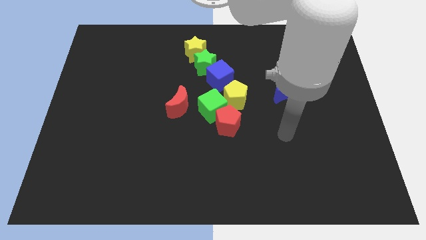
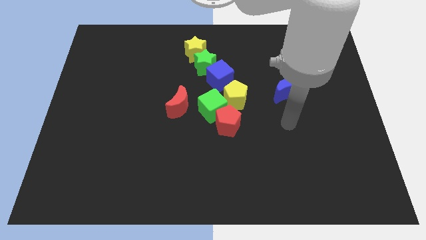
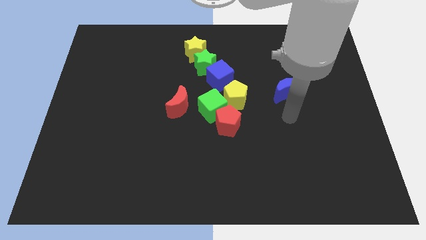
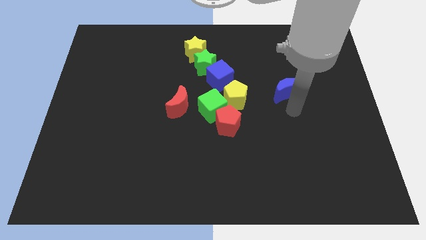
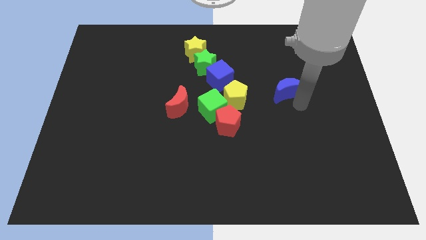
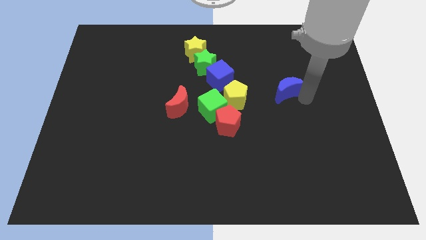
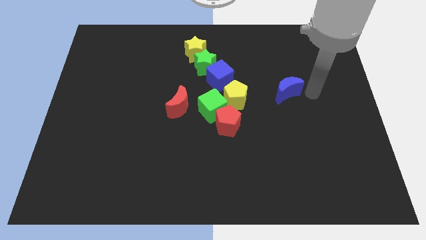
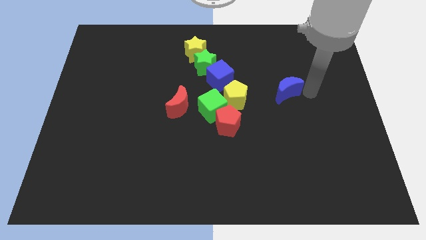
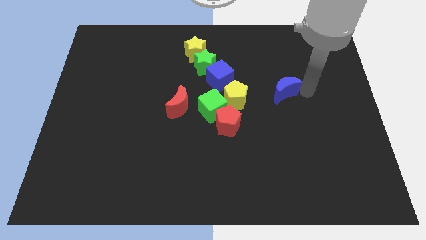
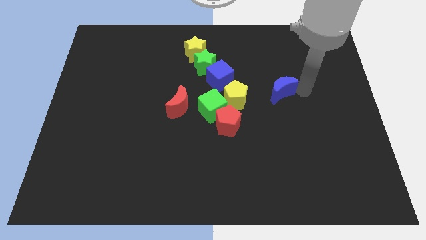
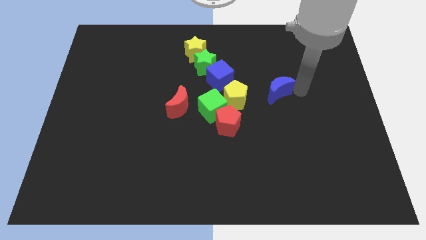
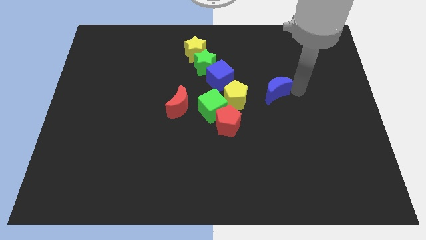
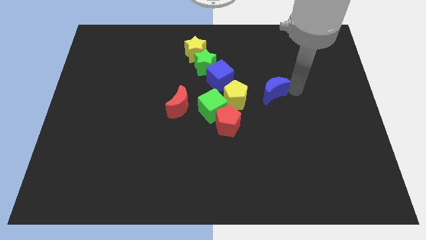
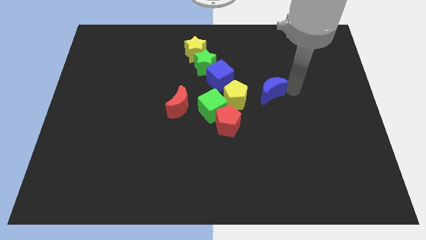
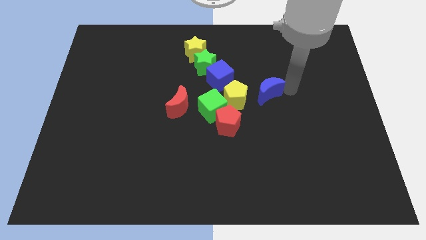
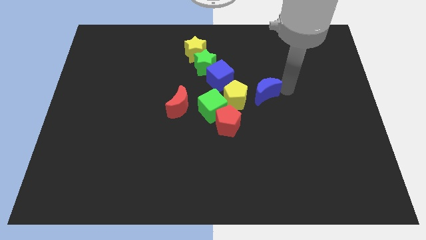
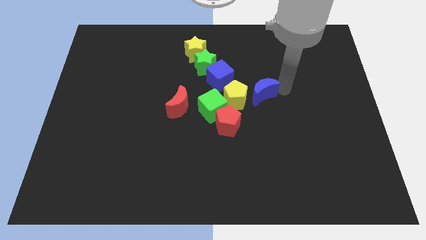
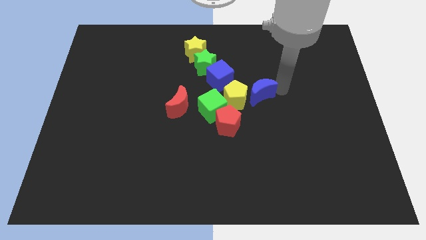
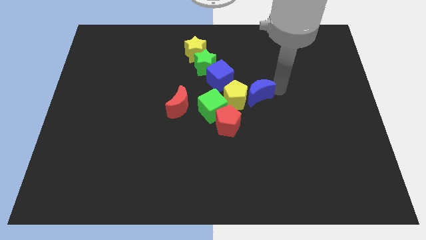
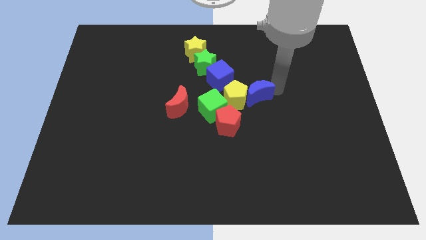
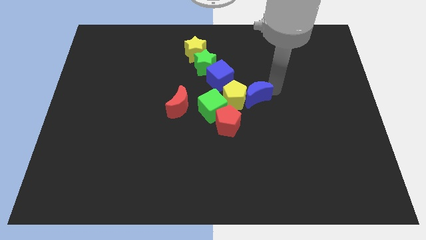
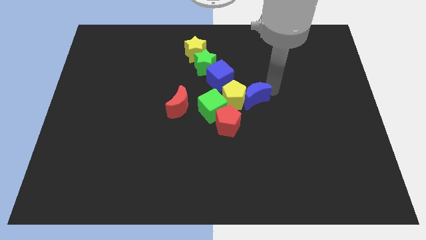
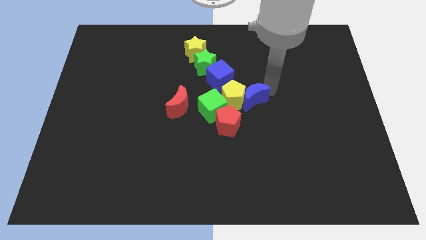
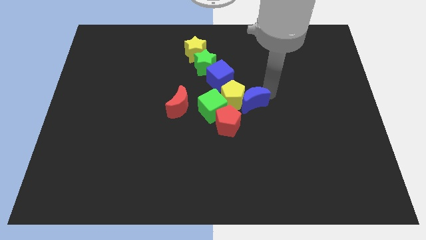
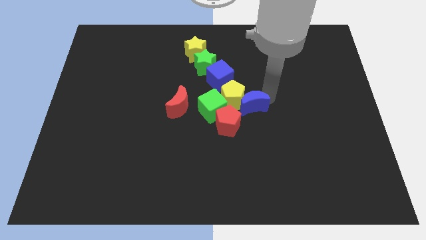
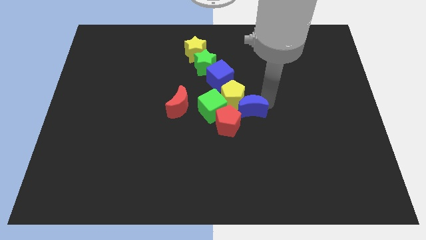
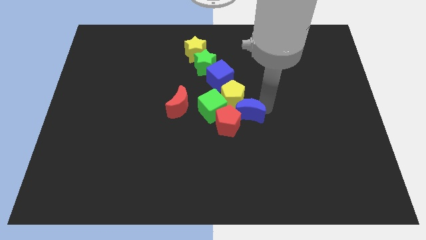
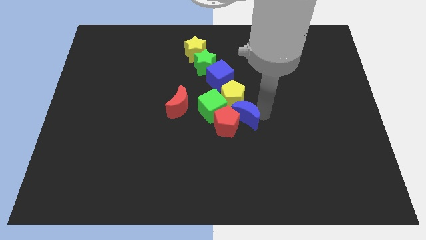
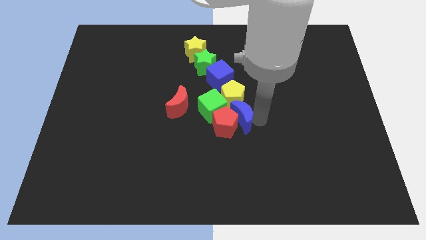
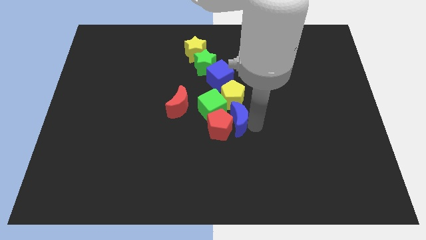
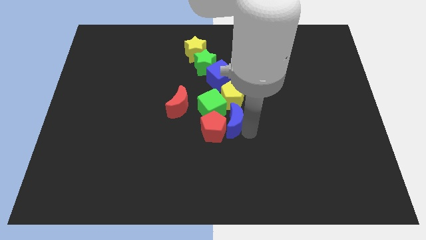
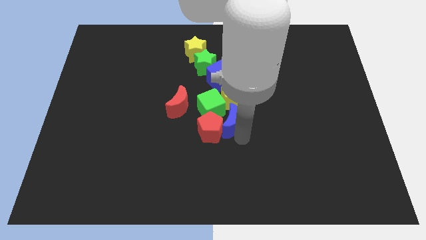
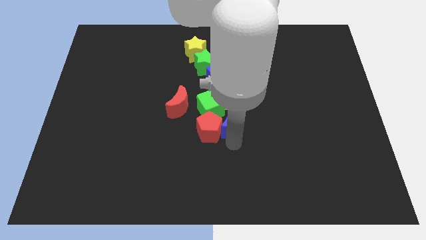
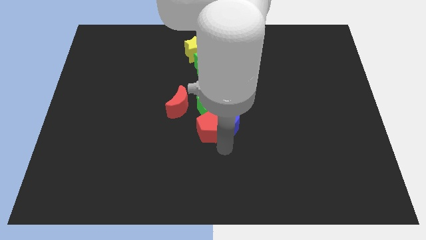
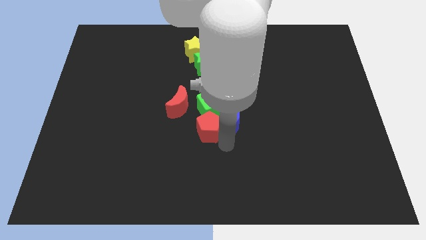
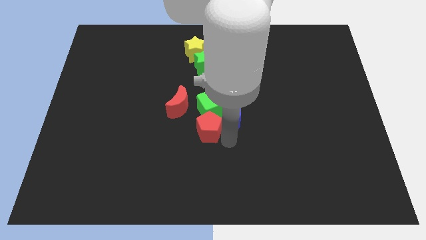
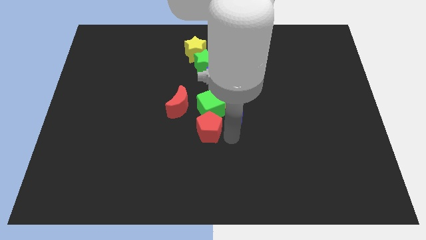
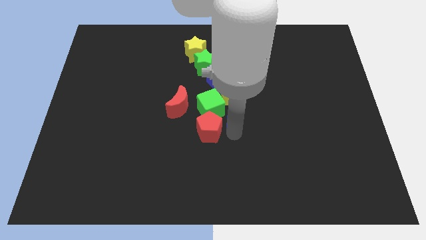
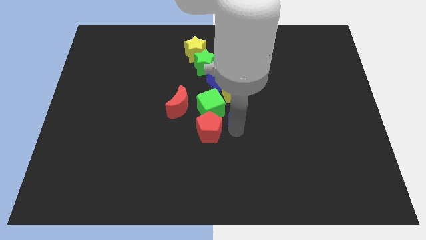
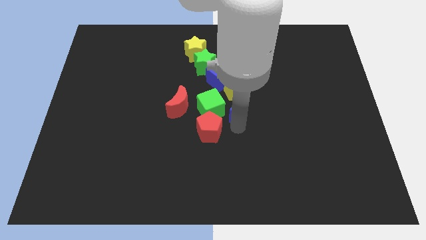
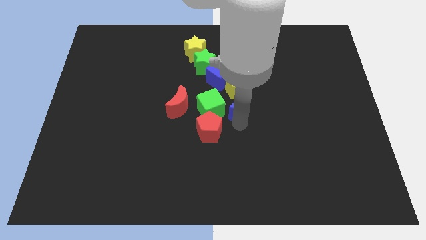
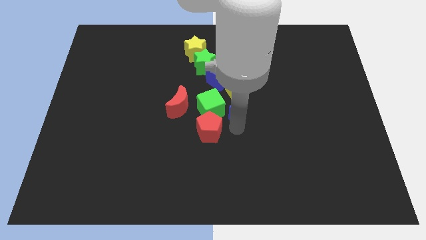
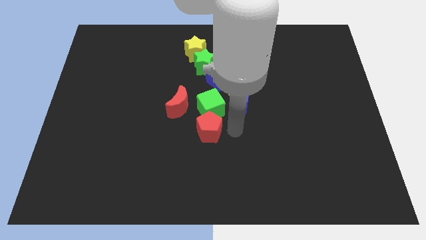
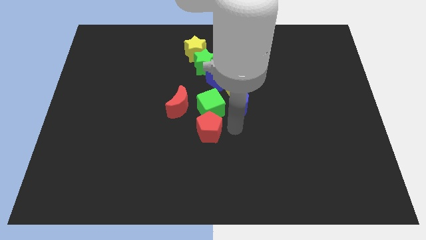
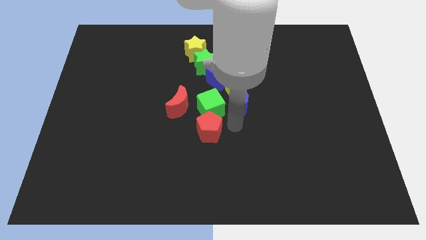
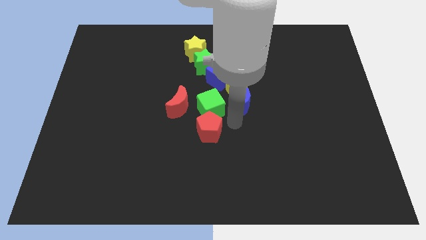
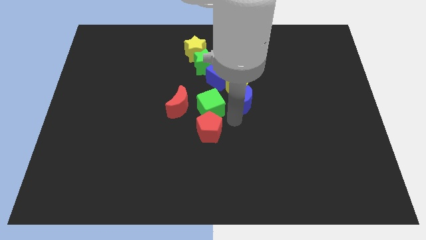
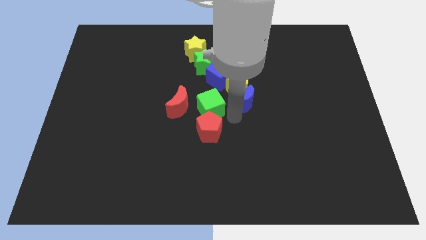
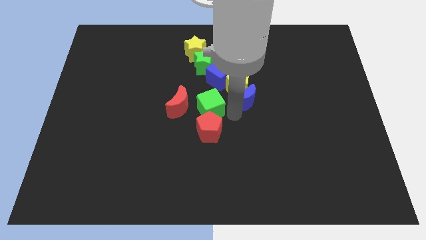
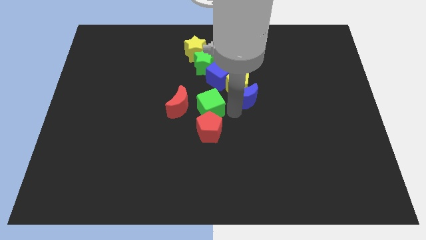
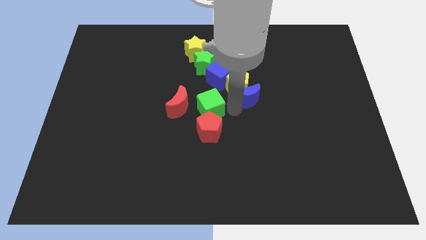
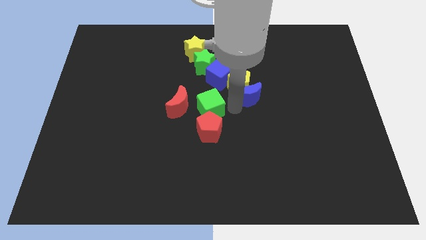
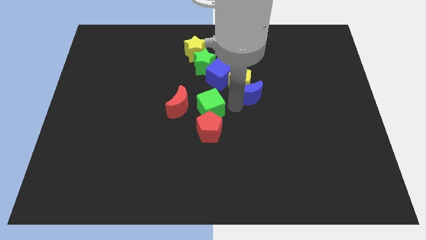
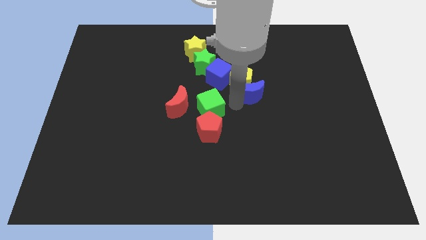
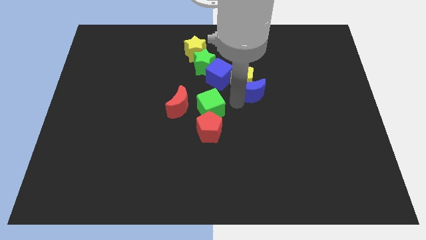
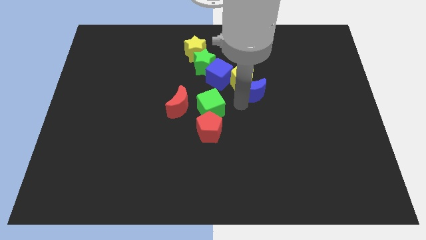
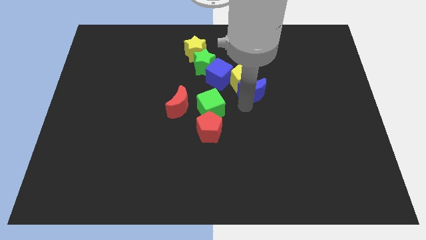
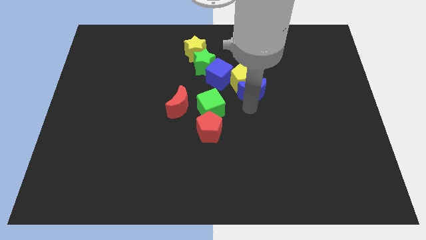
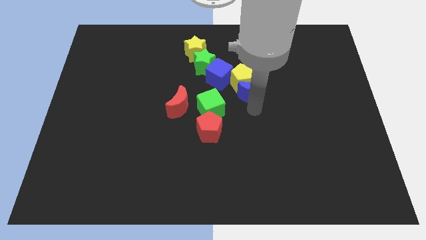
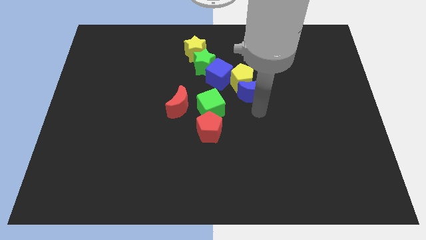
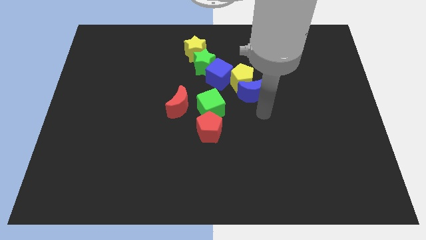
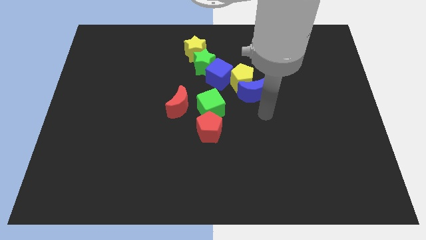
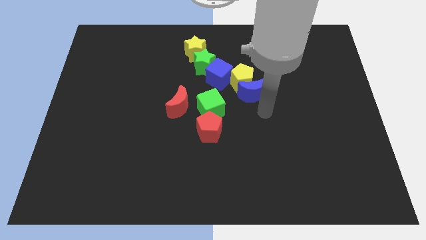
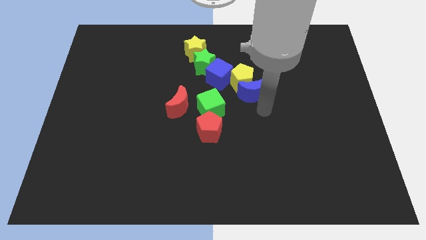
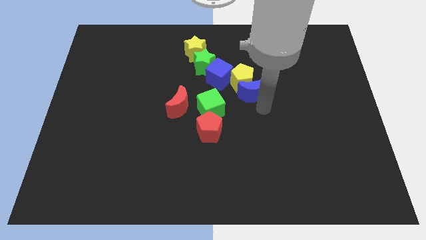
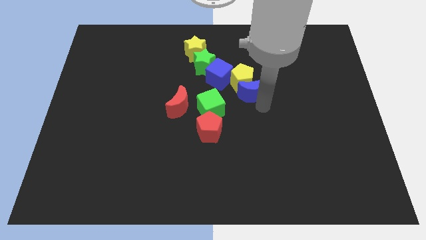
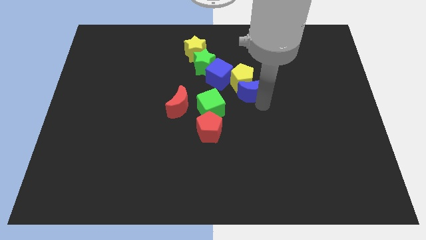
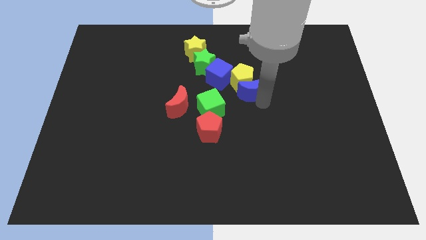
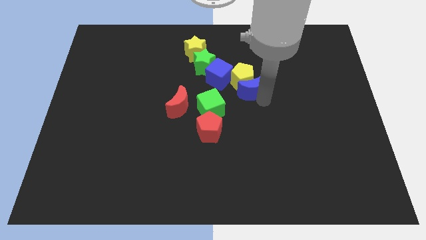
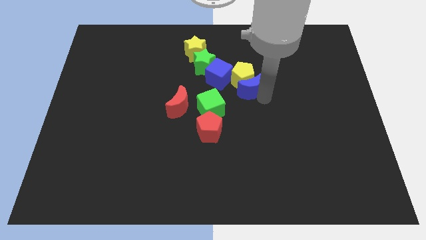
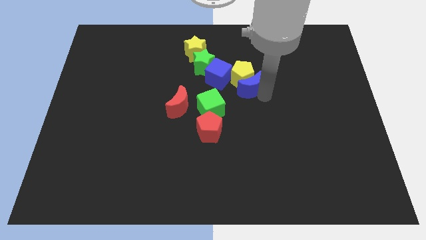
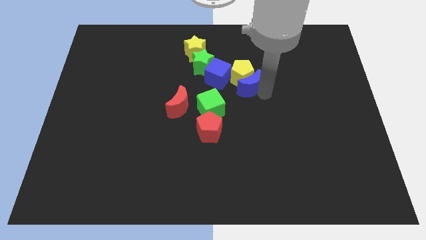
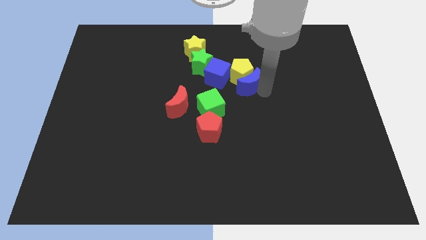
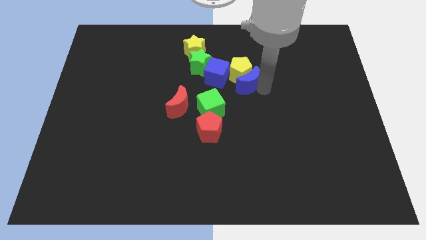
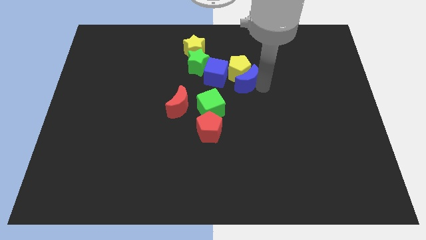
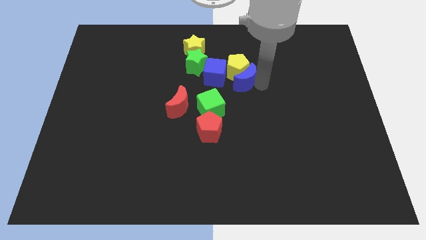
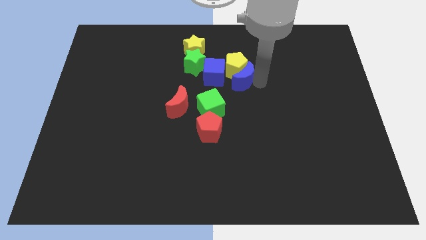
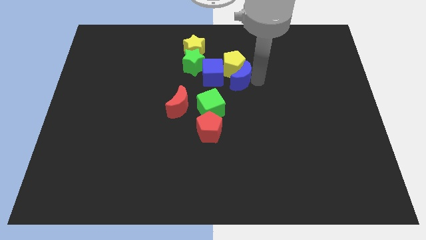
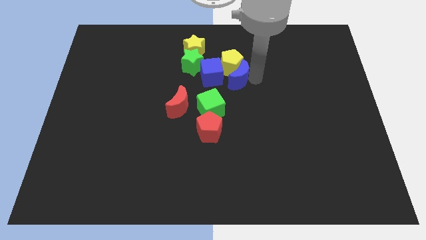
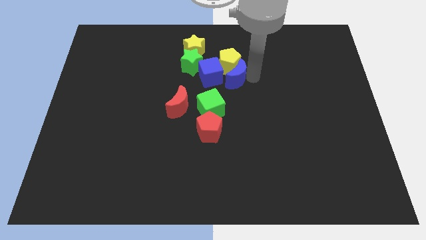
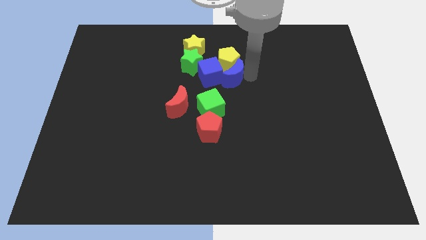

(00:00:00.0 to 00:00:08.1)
put the blue moon close to the blue cube
